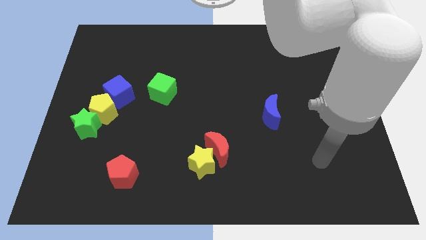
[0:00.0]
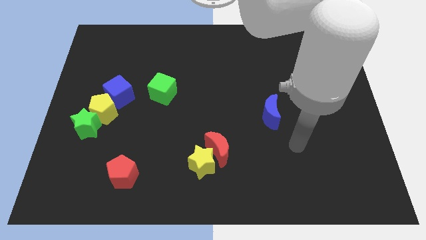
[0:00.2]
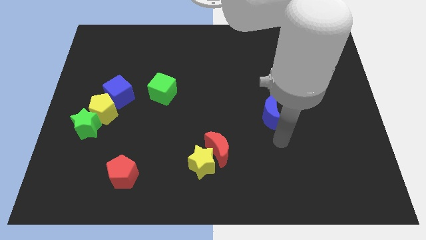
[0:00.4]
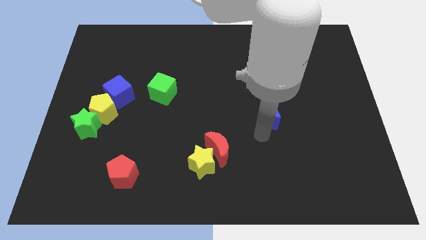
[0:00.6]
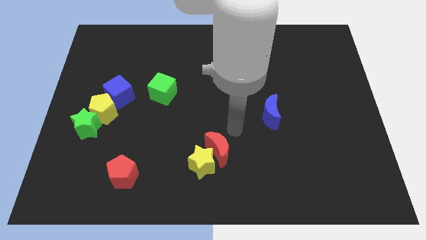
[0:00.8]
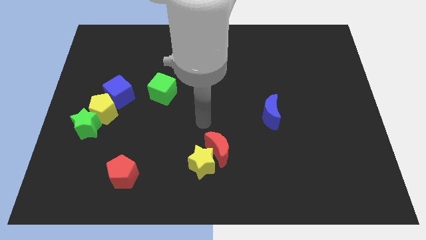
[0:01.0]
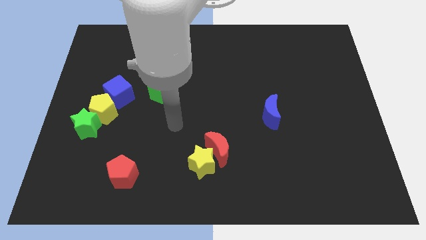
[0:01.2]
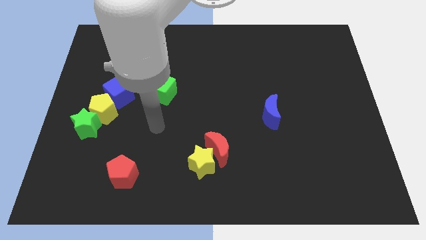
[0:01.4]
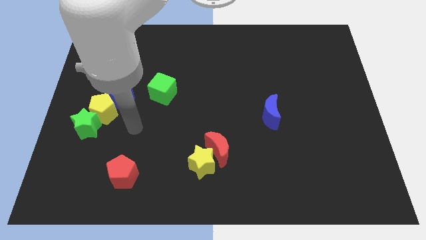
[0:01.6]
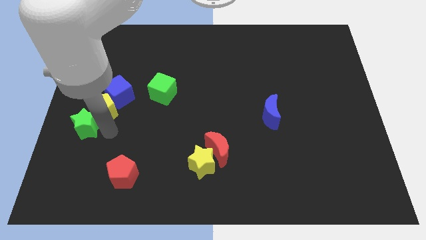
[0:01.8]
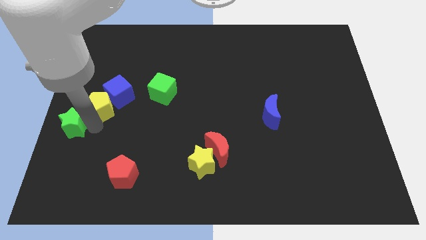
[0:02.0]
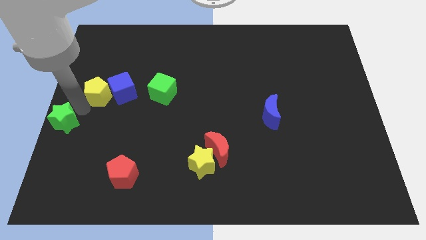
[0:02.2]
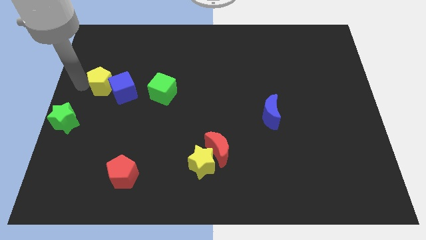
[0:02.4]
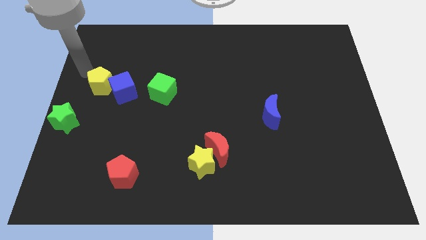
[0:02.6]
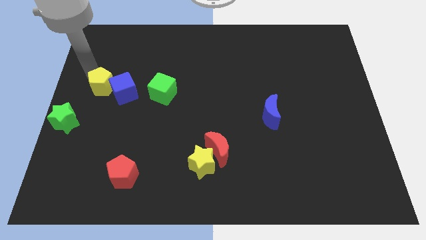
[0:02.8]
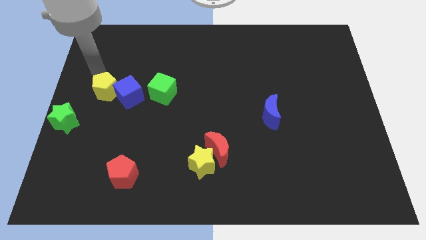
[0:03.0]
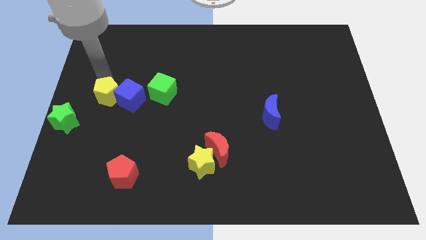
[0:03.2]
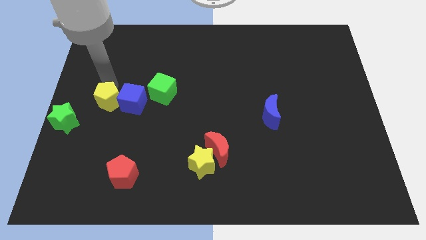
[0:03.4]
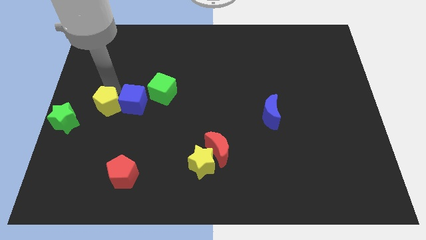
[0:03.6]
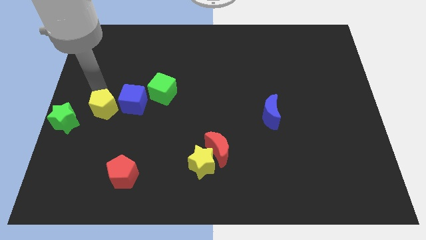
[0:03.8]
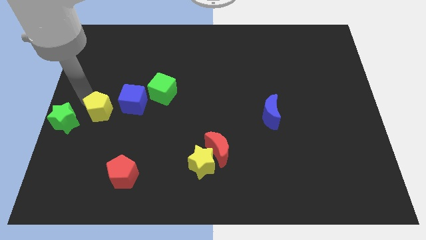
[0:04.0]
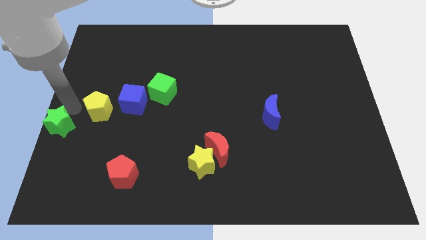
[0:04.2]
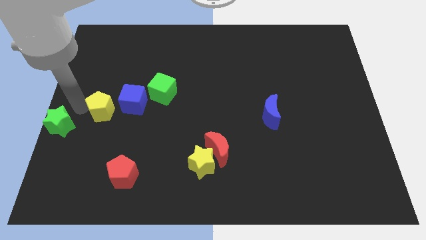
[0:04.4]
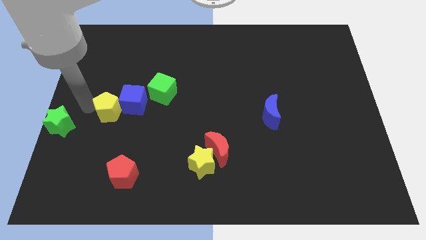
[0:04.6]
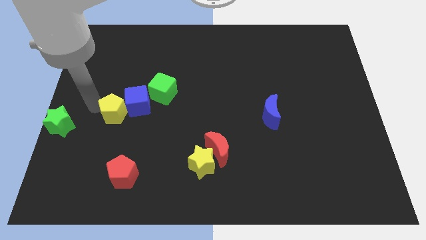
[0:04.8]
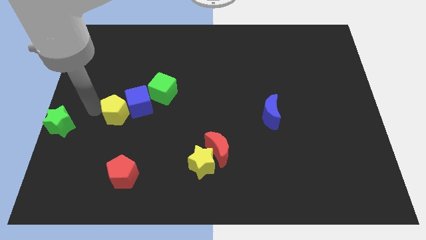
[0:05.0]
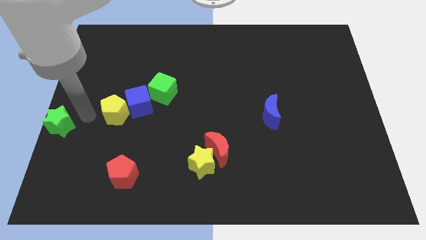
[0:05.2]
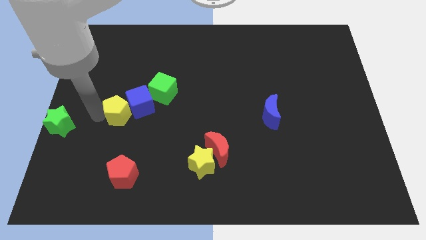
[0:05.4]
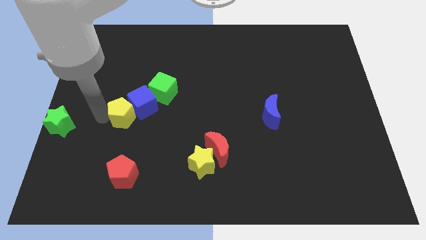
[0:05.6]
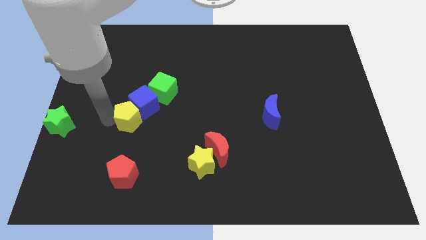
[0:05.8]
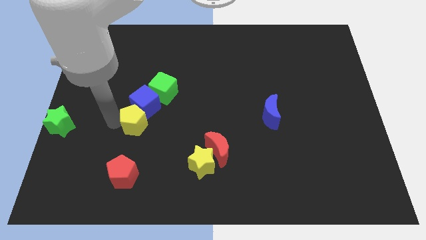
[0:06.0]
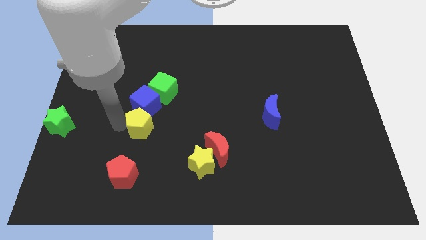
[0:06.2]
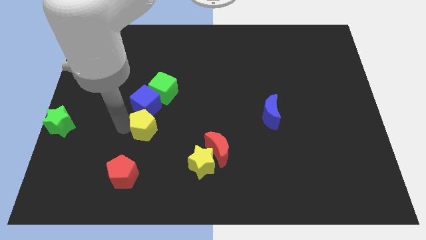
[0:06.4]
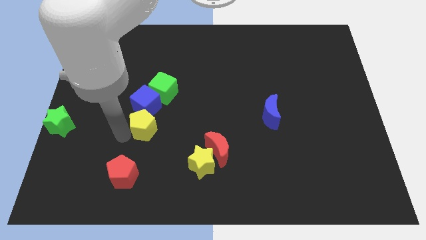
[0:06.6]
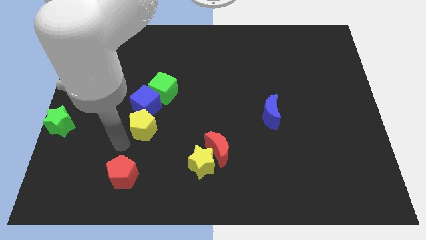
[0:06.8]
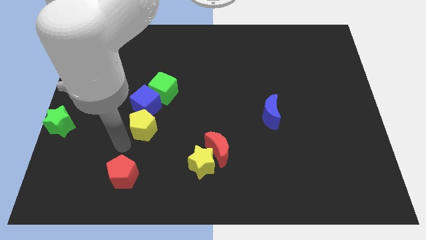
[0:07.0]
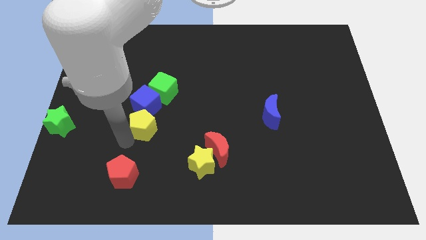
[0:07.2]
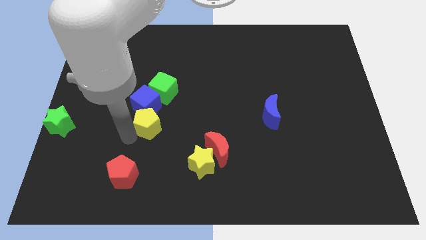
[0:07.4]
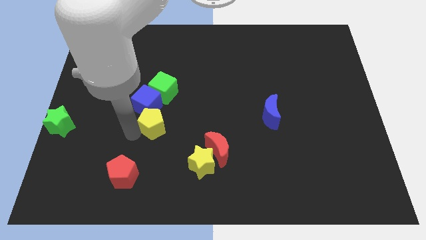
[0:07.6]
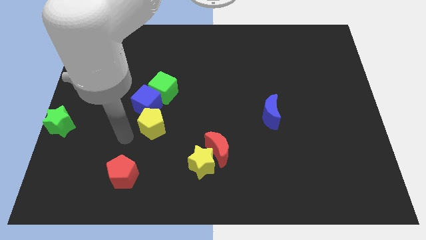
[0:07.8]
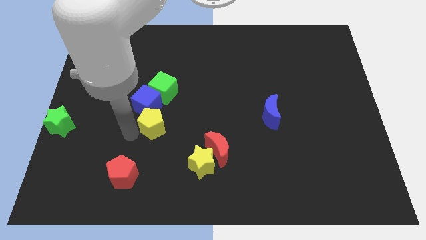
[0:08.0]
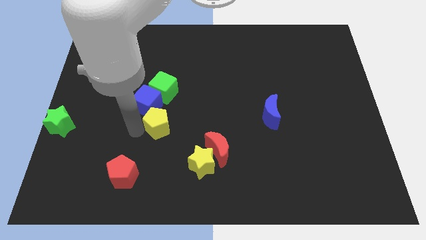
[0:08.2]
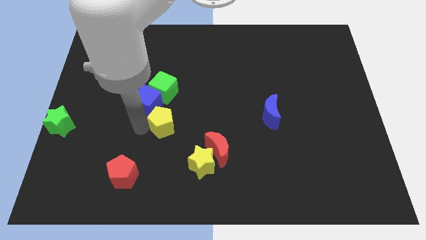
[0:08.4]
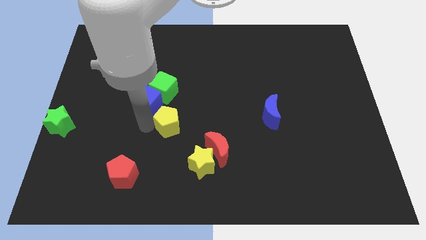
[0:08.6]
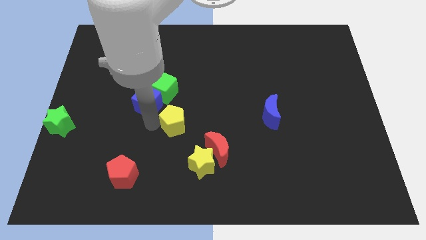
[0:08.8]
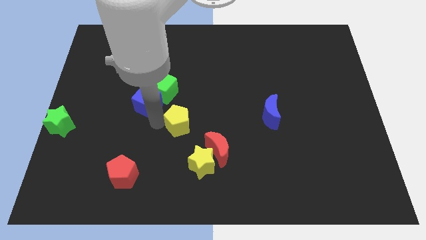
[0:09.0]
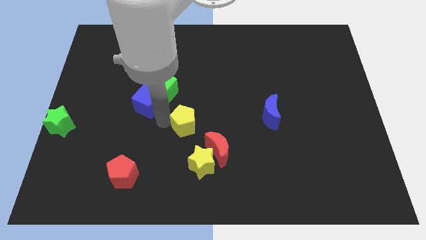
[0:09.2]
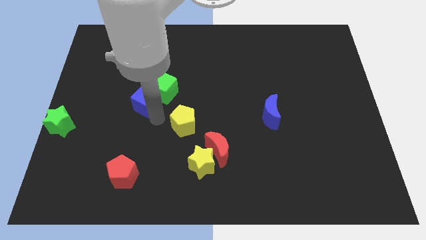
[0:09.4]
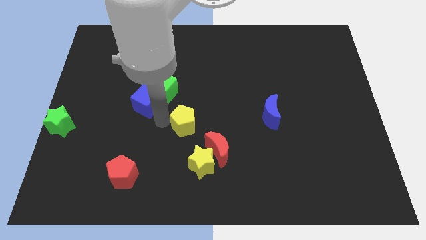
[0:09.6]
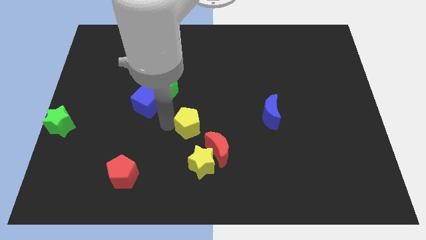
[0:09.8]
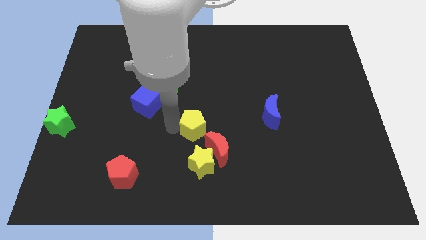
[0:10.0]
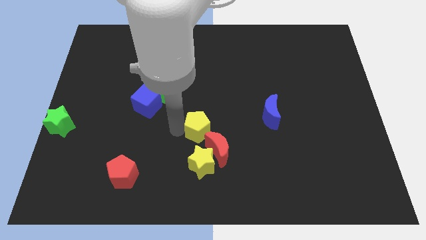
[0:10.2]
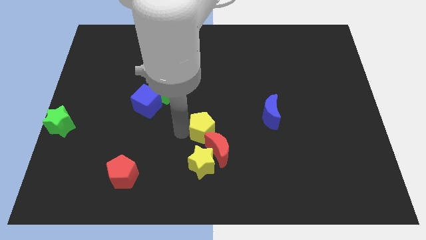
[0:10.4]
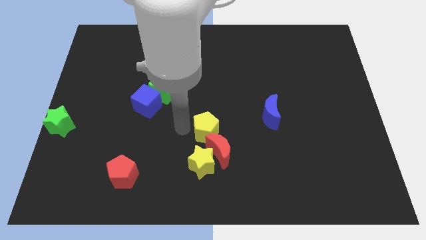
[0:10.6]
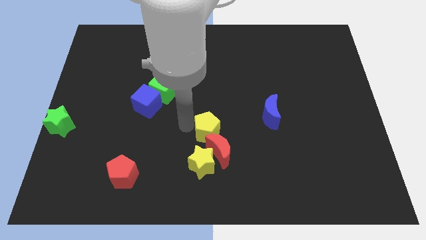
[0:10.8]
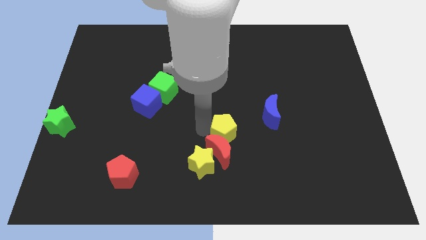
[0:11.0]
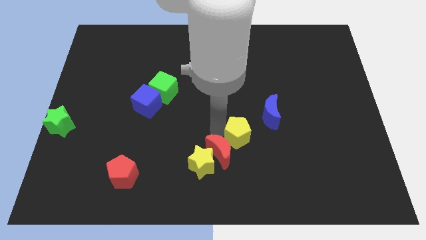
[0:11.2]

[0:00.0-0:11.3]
slide the yellow pentagon just right of the red moon

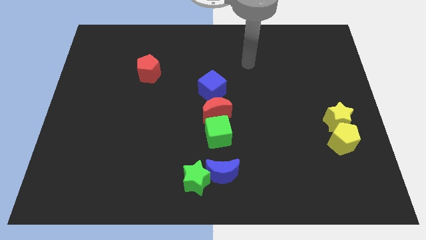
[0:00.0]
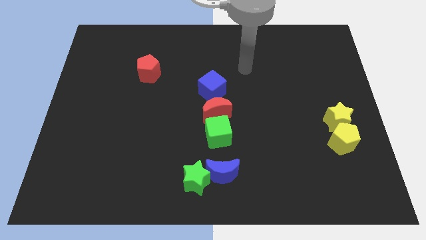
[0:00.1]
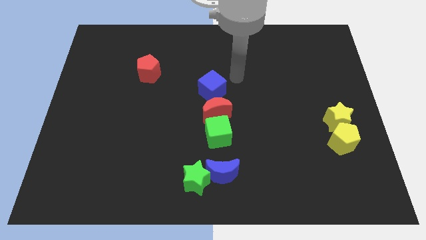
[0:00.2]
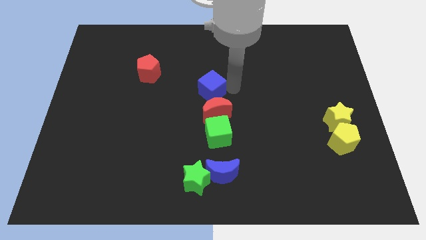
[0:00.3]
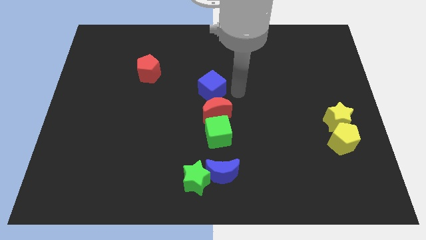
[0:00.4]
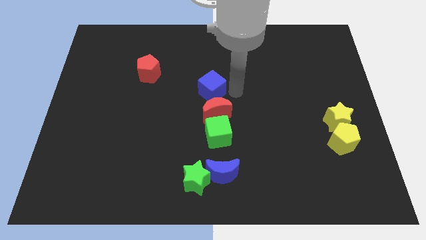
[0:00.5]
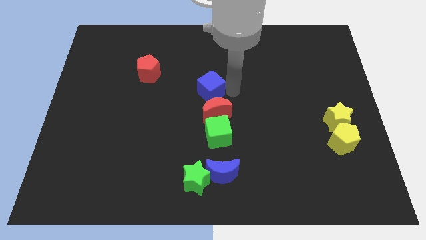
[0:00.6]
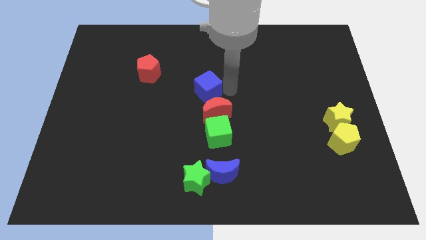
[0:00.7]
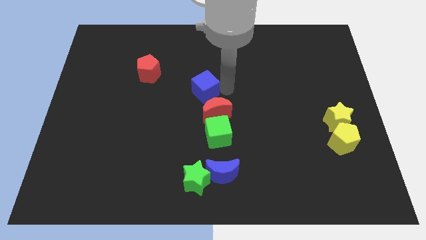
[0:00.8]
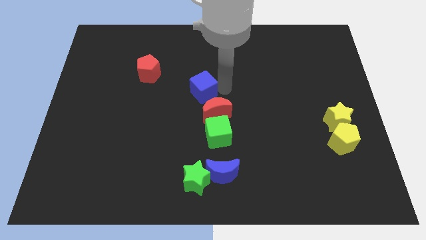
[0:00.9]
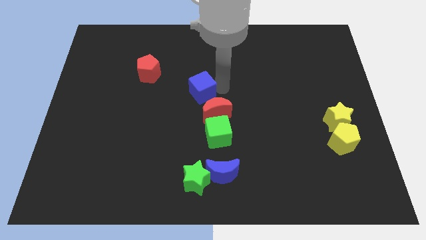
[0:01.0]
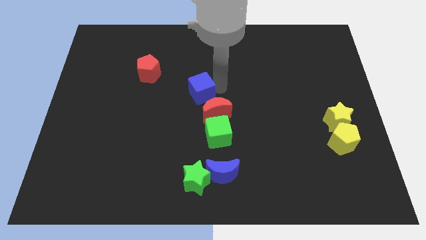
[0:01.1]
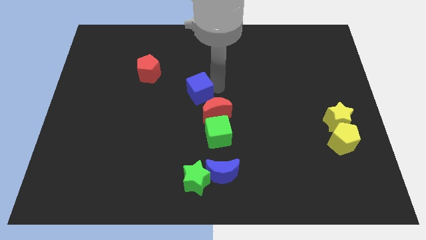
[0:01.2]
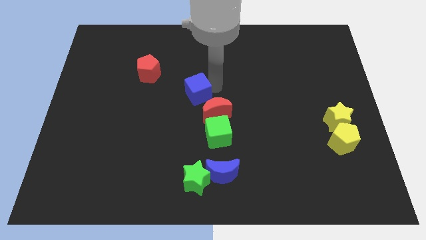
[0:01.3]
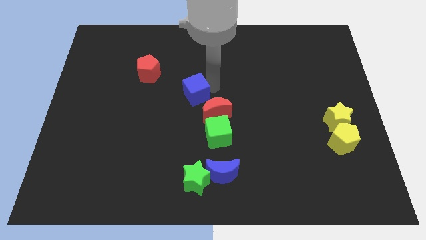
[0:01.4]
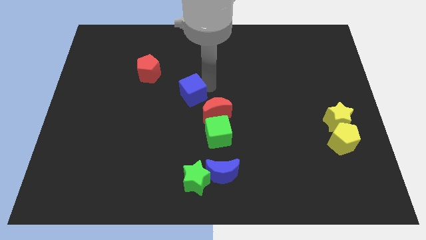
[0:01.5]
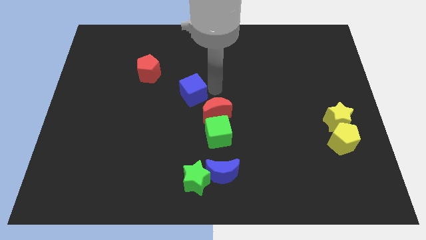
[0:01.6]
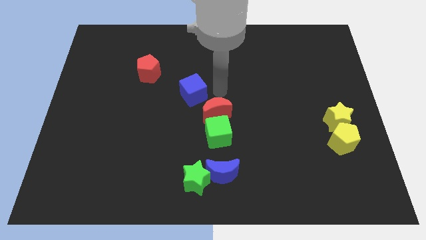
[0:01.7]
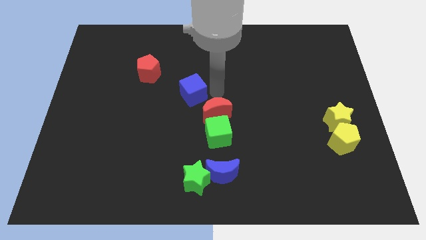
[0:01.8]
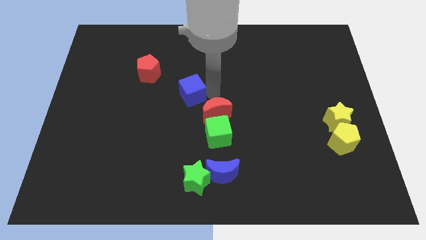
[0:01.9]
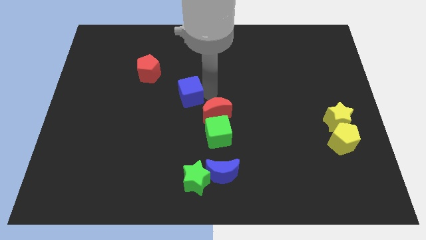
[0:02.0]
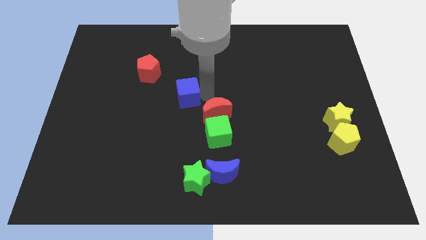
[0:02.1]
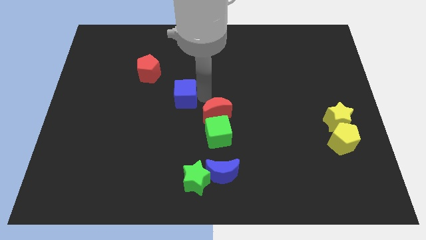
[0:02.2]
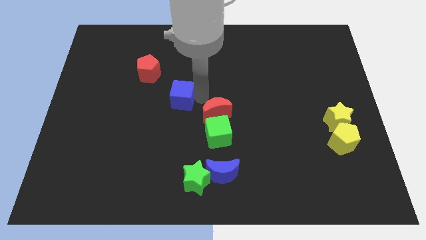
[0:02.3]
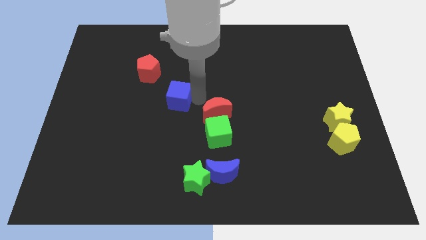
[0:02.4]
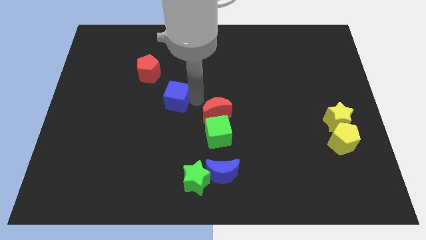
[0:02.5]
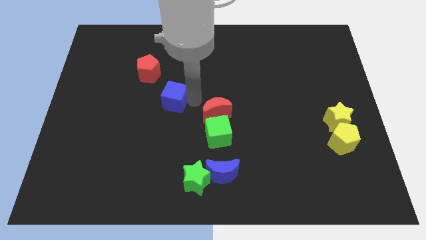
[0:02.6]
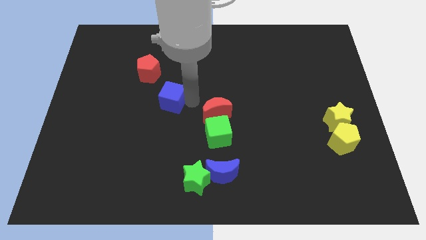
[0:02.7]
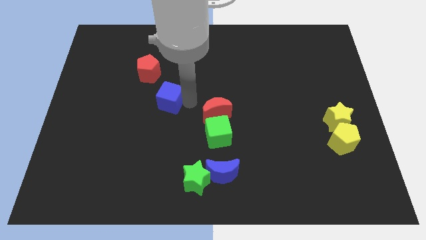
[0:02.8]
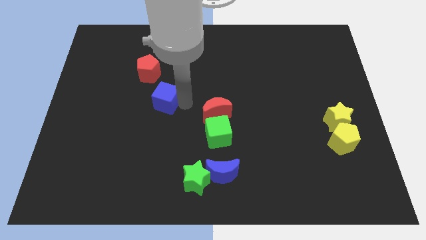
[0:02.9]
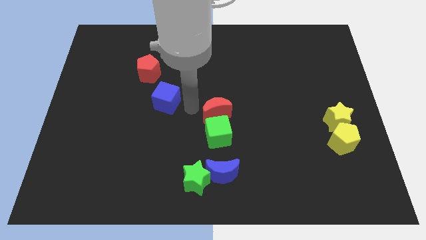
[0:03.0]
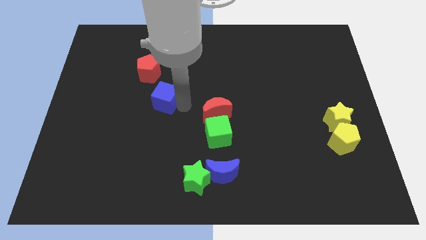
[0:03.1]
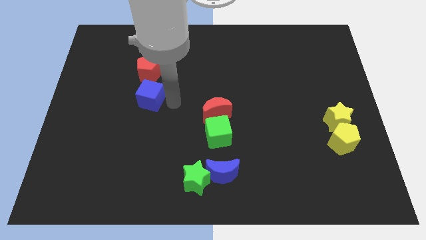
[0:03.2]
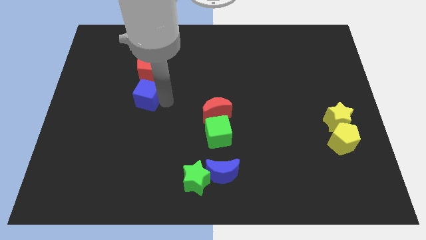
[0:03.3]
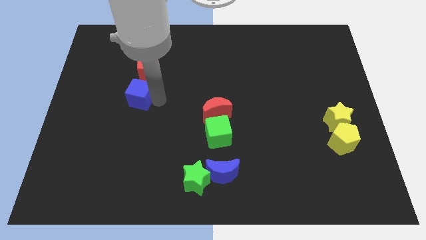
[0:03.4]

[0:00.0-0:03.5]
slide the blue cube to the bottom left side of the red pentagon
